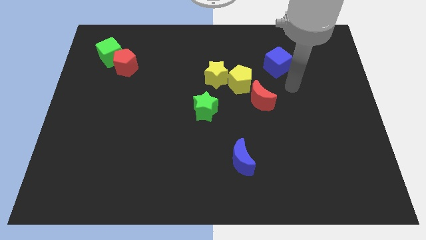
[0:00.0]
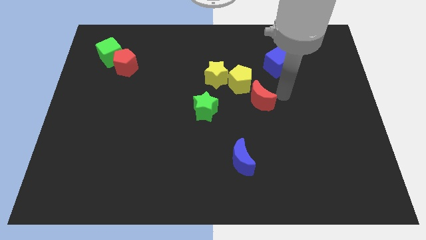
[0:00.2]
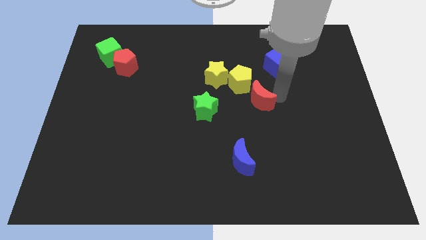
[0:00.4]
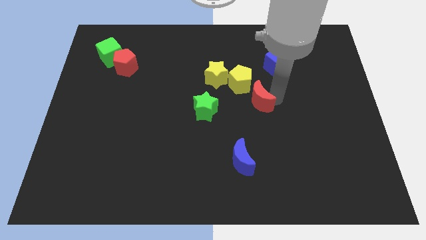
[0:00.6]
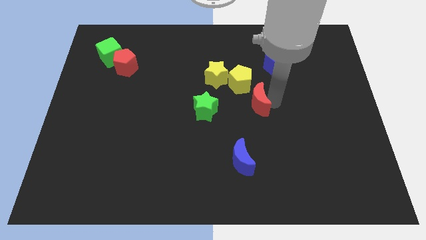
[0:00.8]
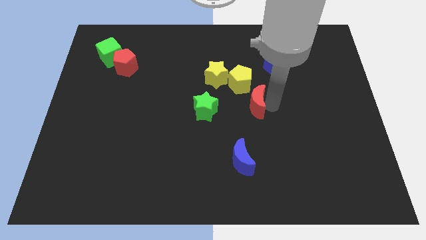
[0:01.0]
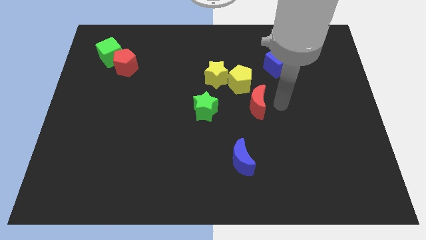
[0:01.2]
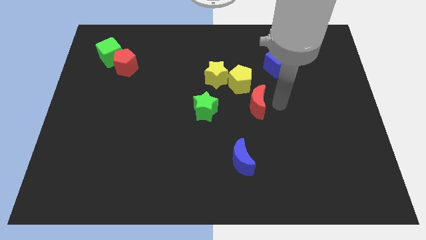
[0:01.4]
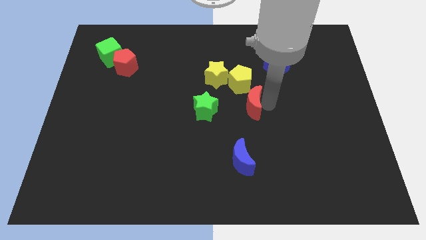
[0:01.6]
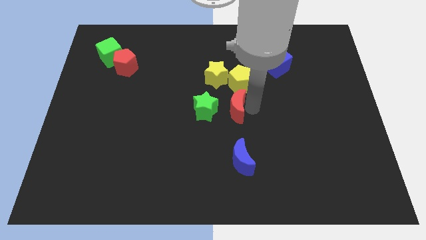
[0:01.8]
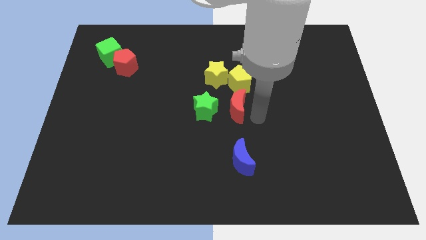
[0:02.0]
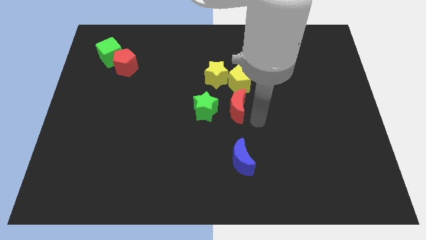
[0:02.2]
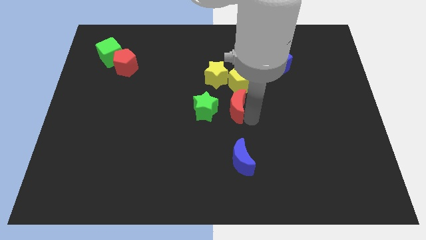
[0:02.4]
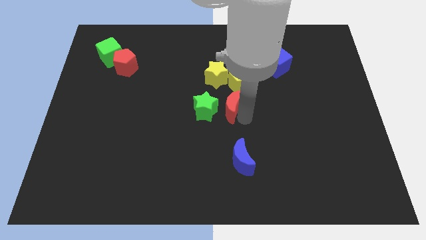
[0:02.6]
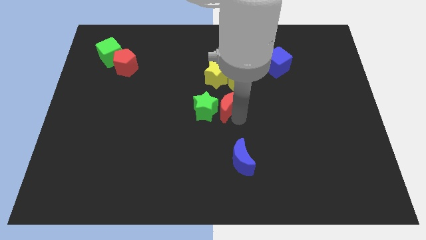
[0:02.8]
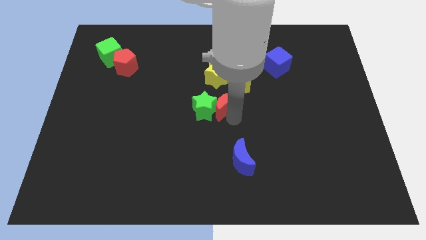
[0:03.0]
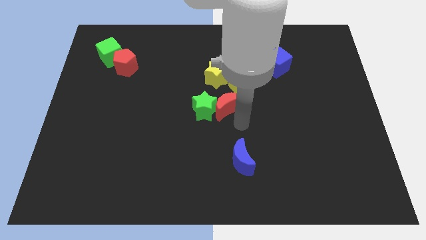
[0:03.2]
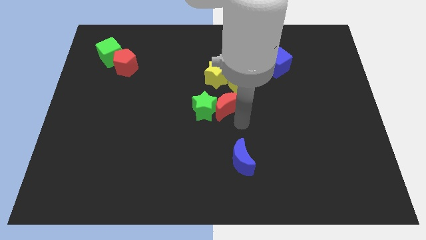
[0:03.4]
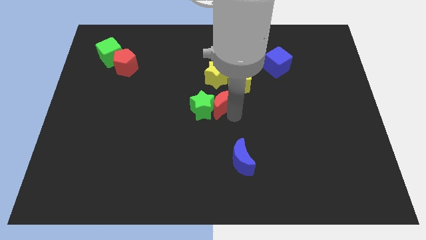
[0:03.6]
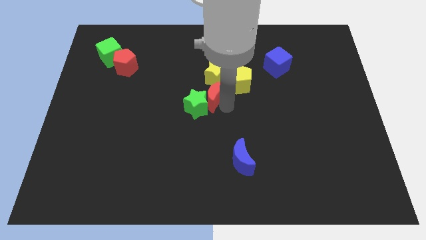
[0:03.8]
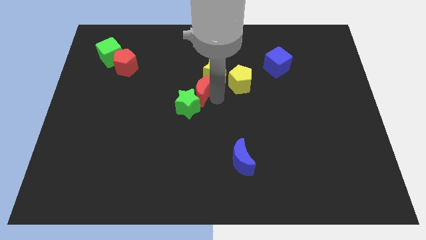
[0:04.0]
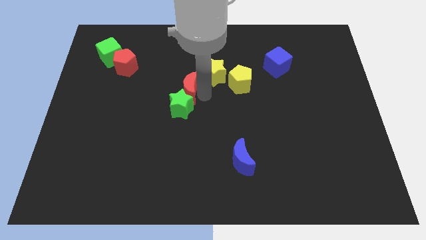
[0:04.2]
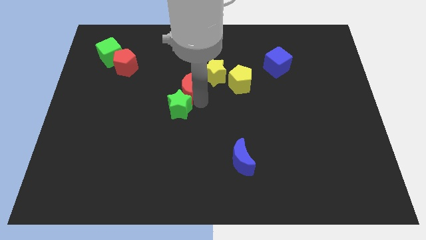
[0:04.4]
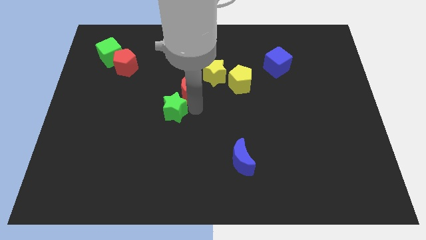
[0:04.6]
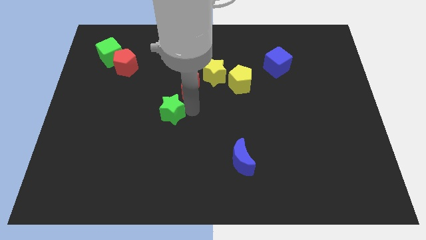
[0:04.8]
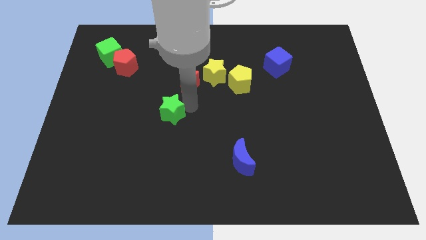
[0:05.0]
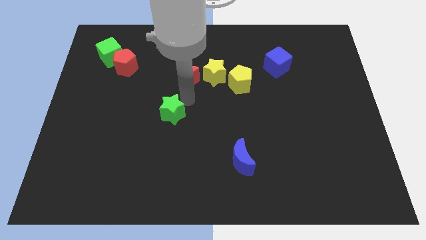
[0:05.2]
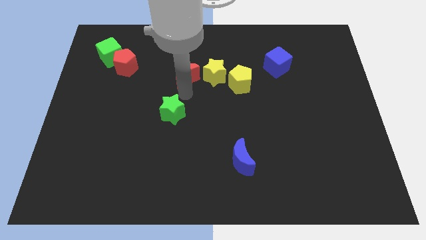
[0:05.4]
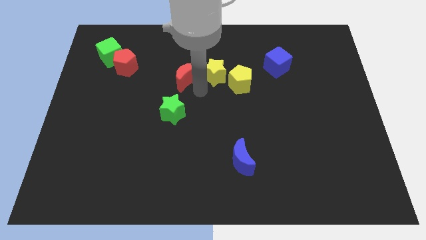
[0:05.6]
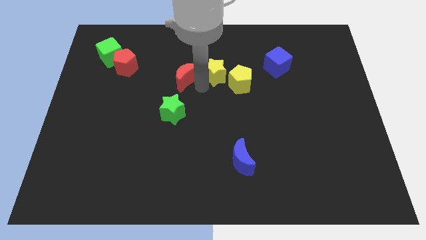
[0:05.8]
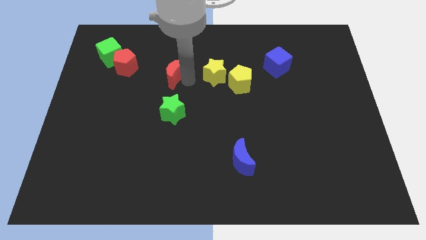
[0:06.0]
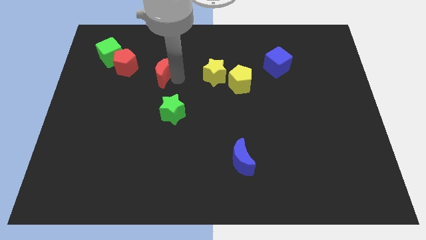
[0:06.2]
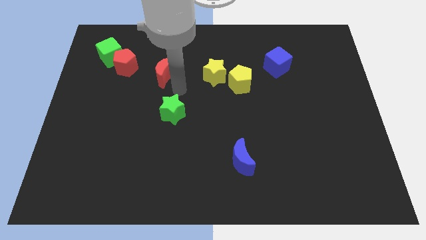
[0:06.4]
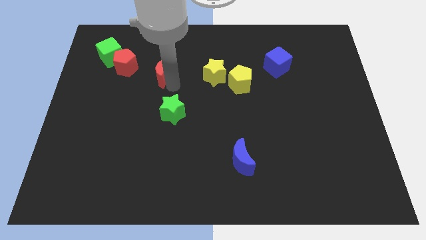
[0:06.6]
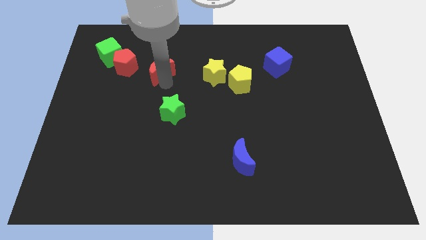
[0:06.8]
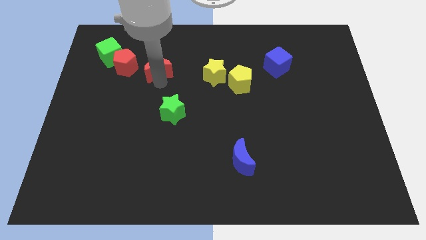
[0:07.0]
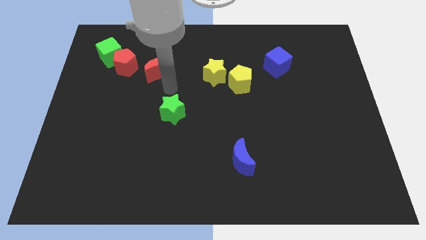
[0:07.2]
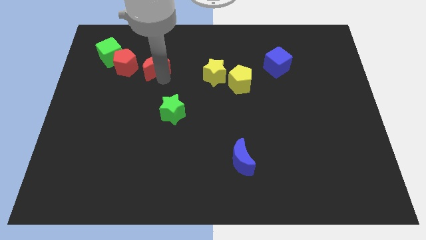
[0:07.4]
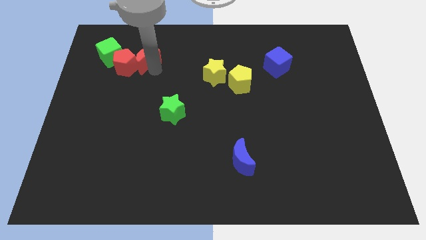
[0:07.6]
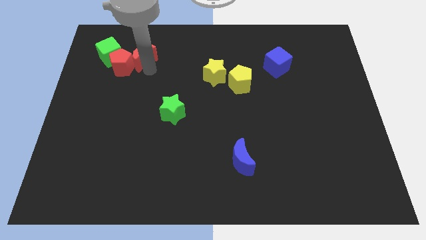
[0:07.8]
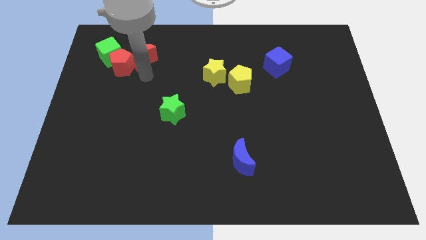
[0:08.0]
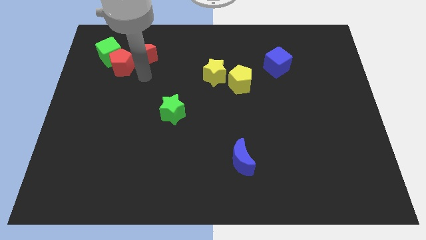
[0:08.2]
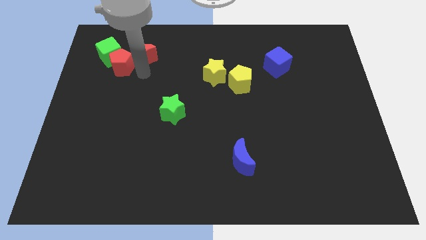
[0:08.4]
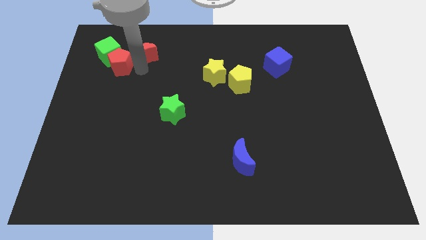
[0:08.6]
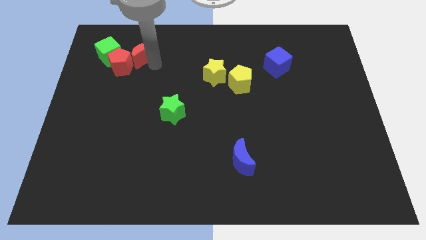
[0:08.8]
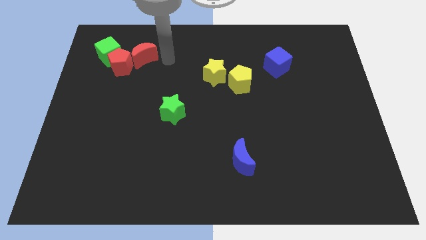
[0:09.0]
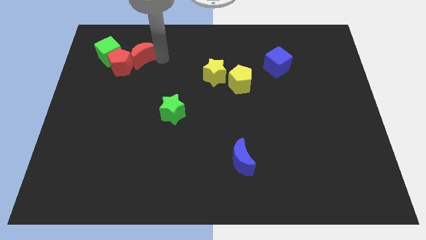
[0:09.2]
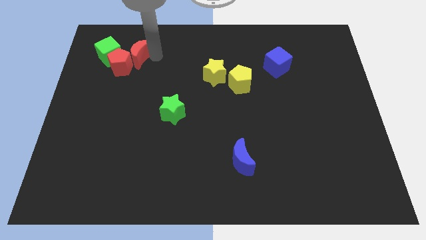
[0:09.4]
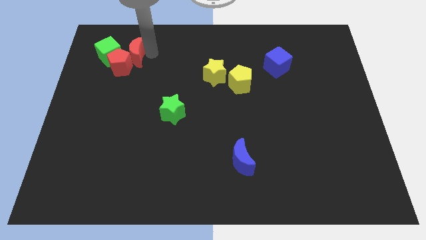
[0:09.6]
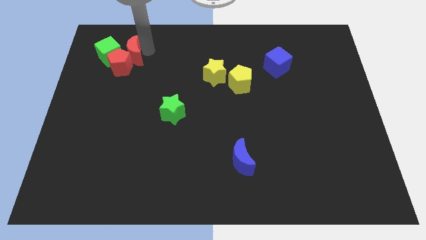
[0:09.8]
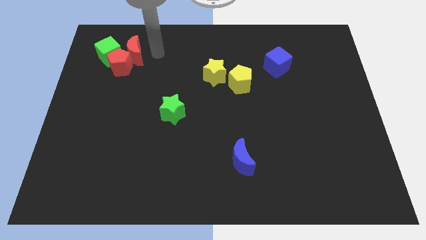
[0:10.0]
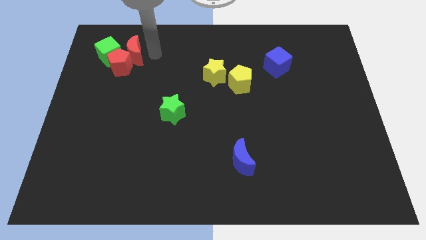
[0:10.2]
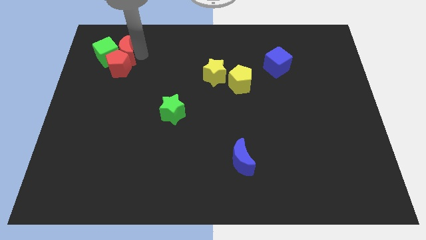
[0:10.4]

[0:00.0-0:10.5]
put the red moon towards the green cube

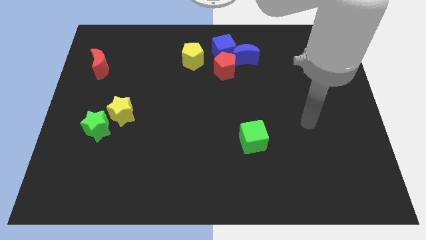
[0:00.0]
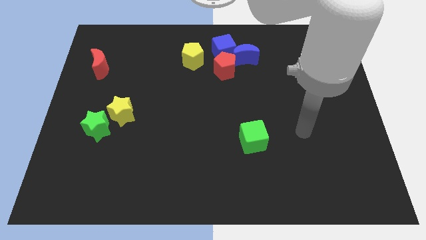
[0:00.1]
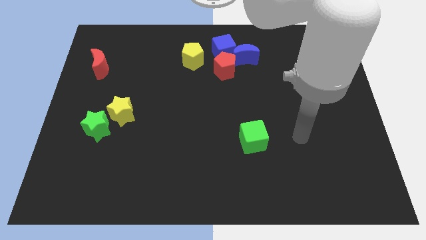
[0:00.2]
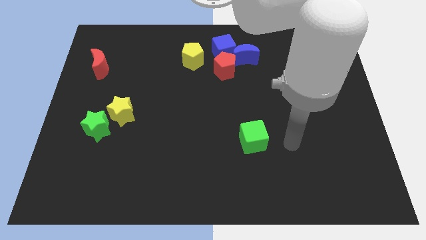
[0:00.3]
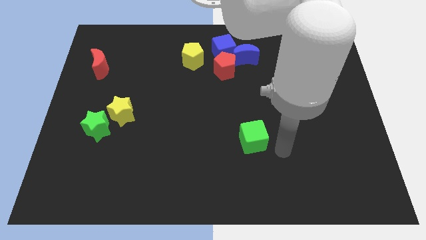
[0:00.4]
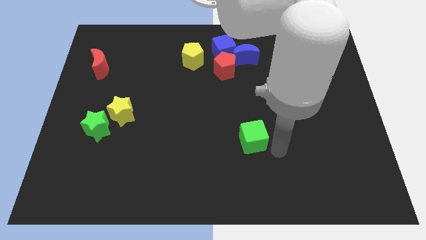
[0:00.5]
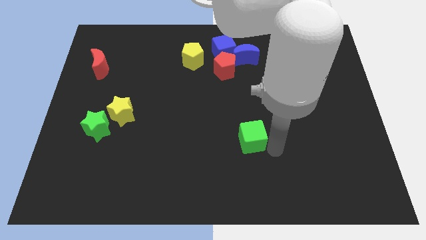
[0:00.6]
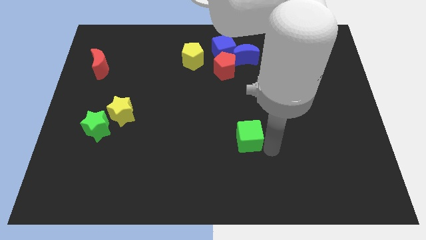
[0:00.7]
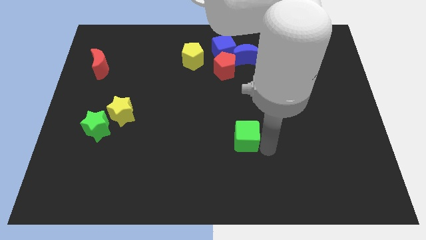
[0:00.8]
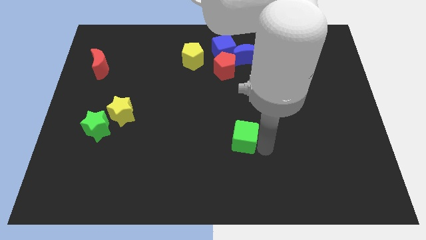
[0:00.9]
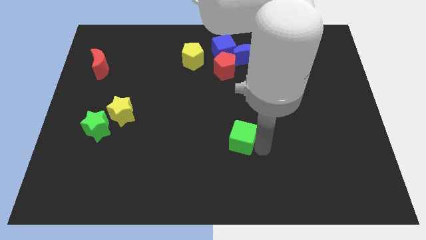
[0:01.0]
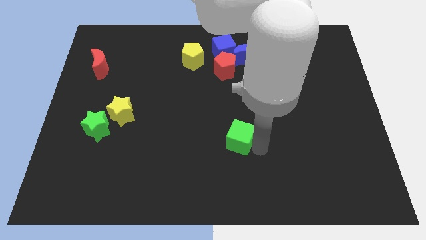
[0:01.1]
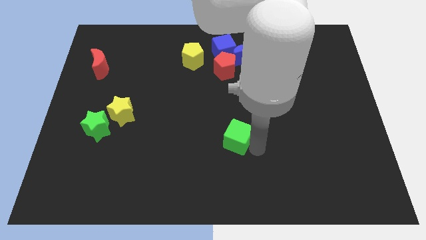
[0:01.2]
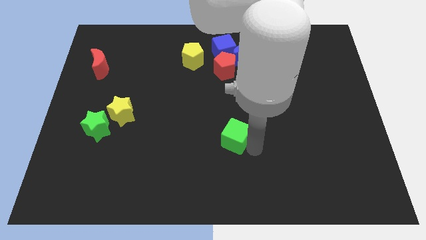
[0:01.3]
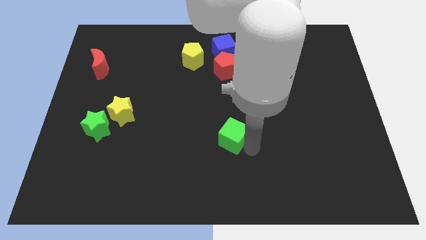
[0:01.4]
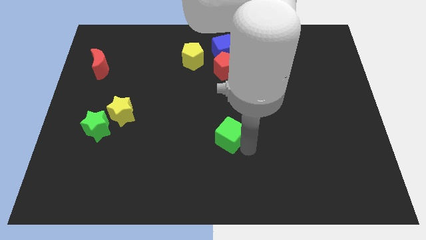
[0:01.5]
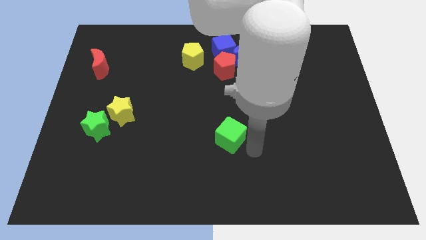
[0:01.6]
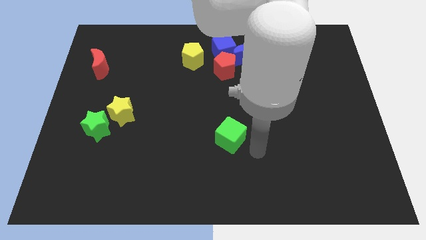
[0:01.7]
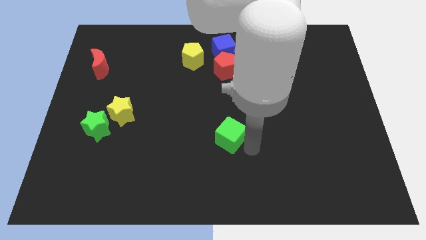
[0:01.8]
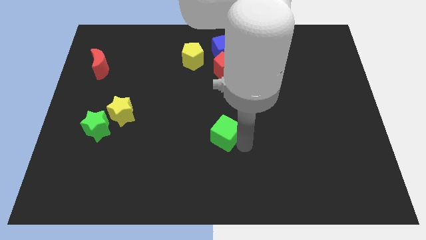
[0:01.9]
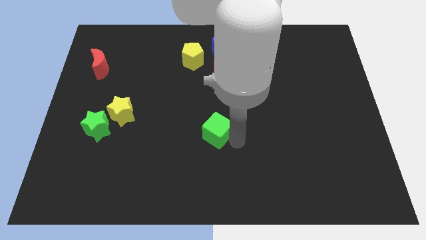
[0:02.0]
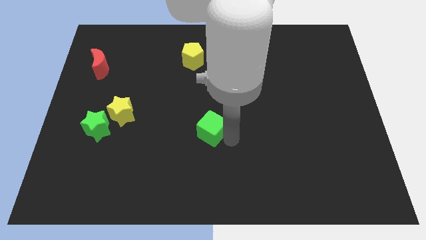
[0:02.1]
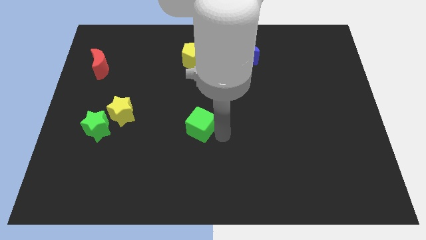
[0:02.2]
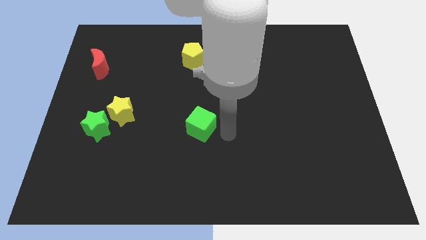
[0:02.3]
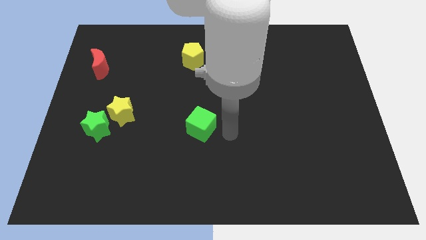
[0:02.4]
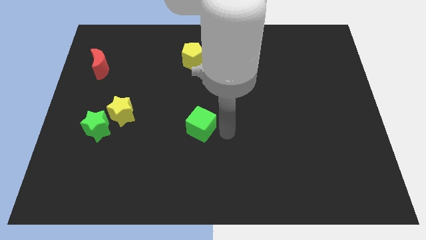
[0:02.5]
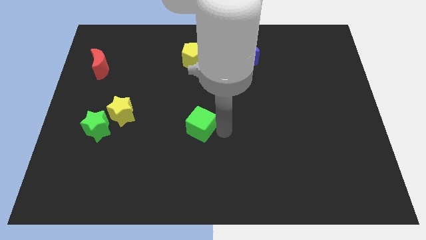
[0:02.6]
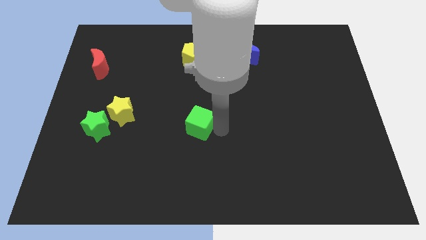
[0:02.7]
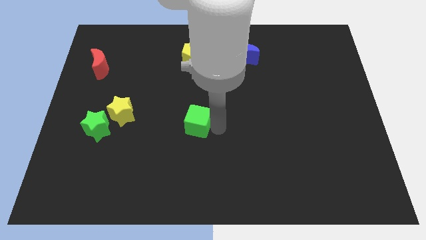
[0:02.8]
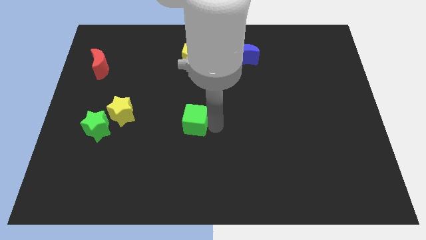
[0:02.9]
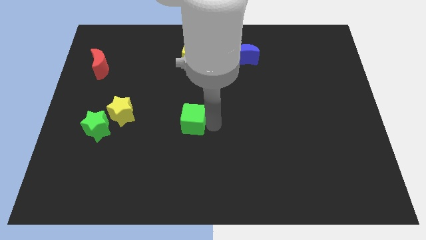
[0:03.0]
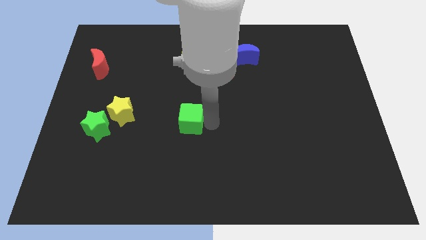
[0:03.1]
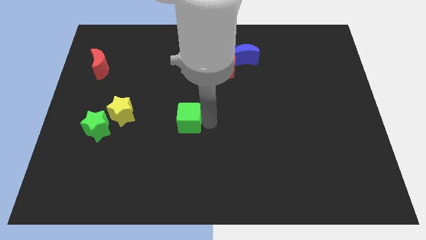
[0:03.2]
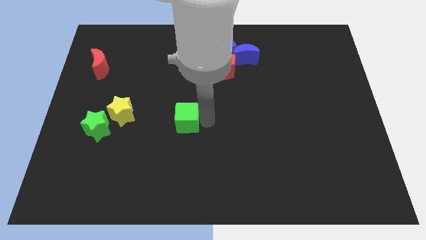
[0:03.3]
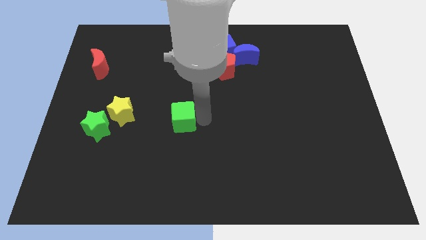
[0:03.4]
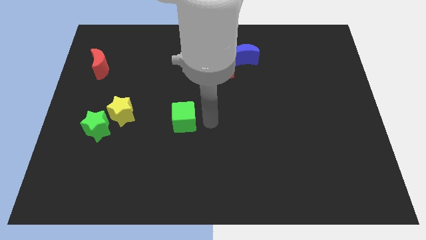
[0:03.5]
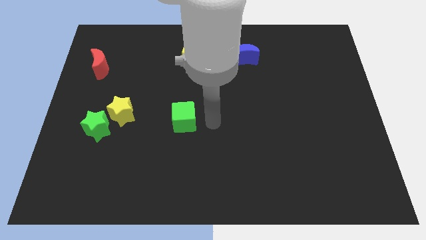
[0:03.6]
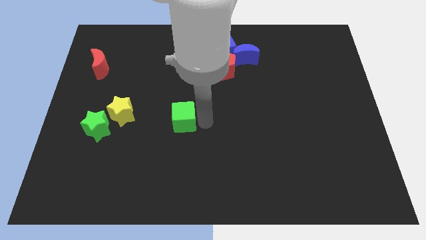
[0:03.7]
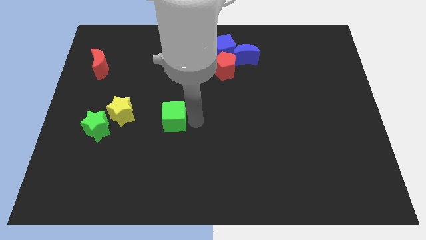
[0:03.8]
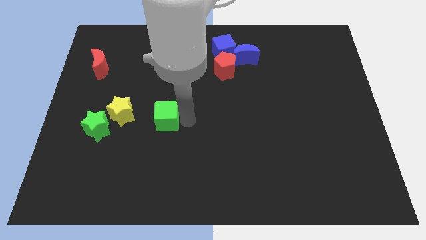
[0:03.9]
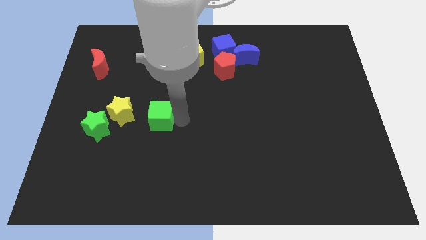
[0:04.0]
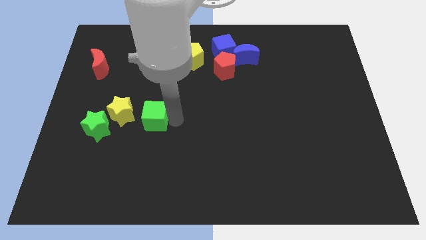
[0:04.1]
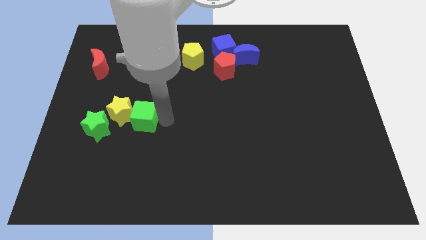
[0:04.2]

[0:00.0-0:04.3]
put the green cube towards the yellow star
